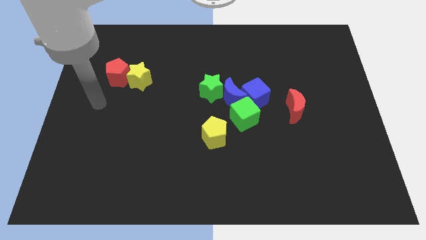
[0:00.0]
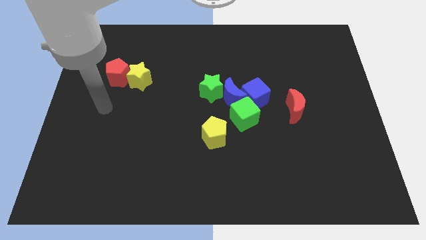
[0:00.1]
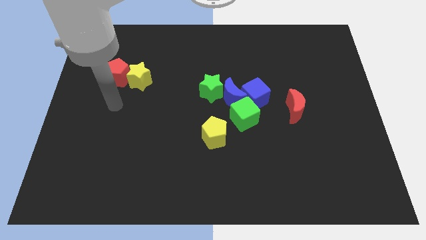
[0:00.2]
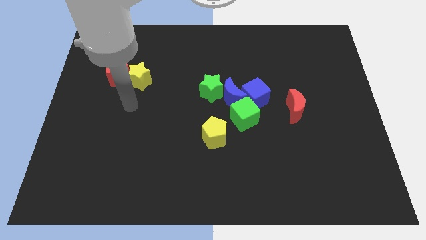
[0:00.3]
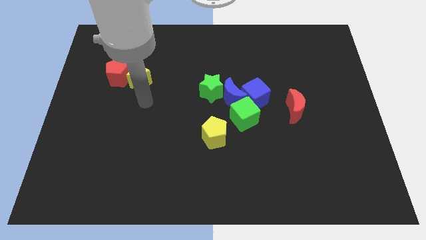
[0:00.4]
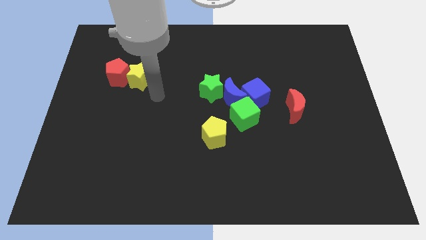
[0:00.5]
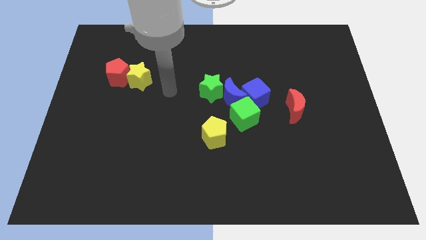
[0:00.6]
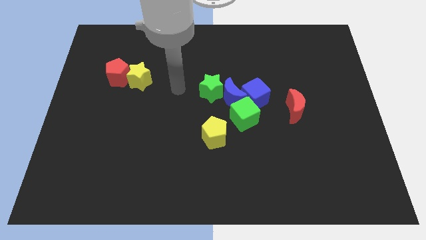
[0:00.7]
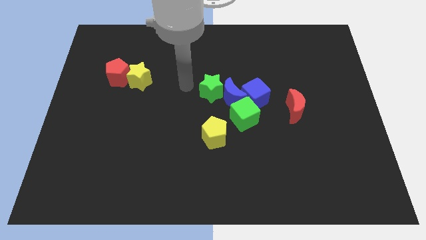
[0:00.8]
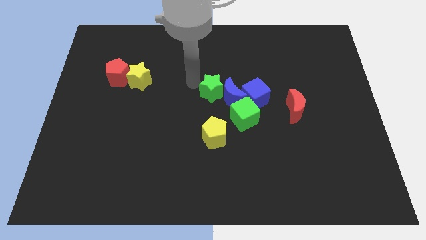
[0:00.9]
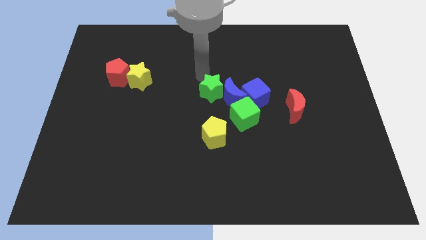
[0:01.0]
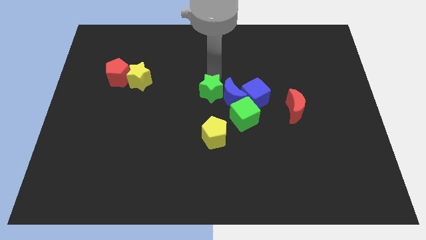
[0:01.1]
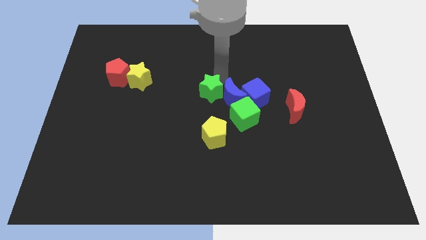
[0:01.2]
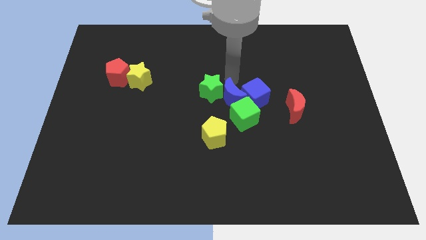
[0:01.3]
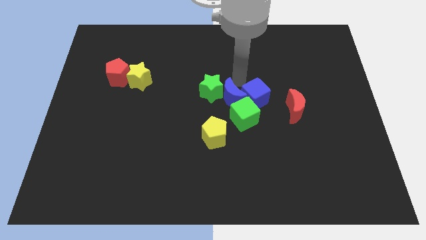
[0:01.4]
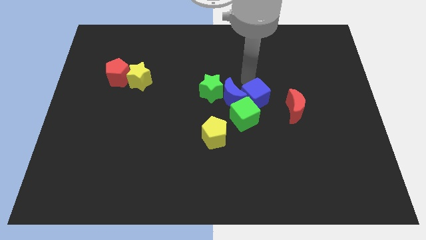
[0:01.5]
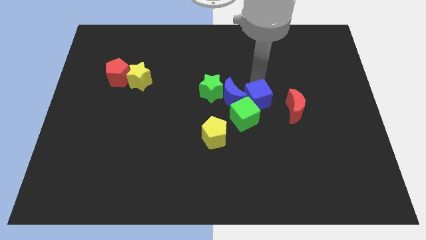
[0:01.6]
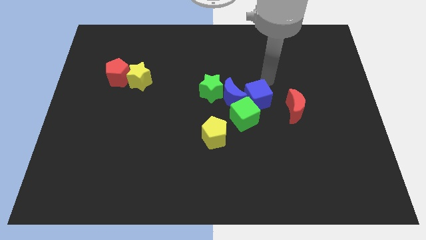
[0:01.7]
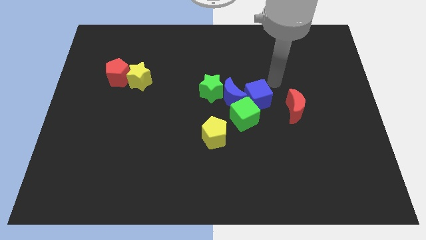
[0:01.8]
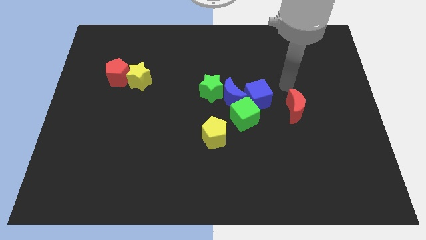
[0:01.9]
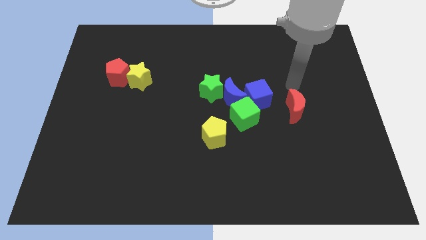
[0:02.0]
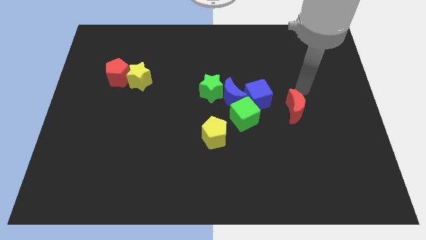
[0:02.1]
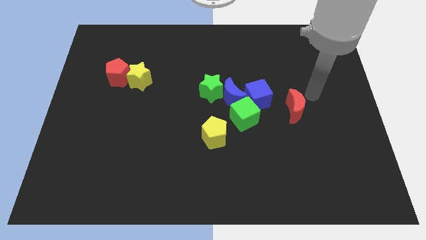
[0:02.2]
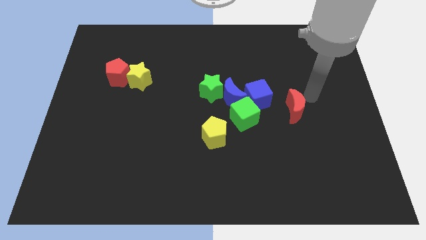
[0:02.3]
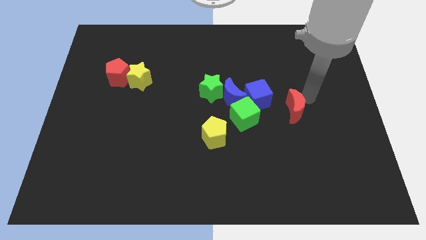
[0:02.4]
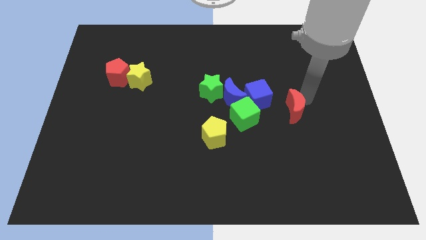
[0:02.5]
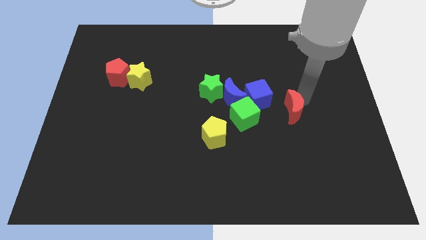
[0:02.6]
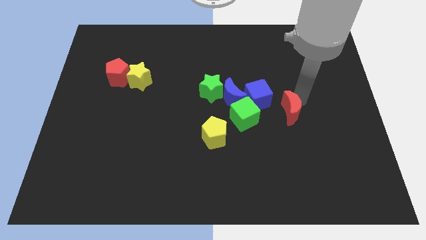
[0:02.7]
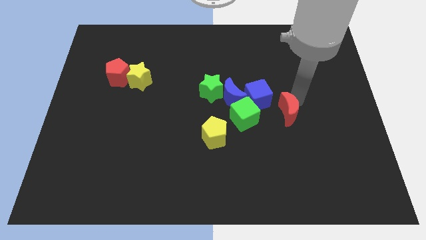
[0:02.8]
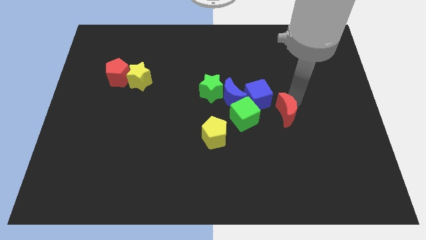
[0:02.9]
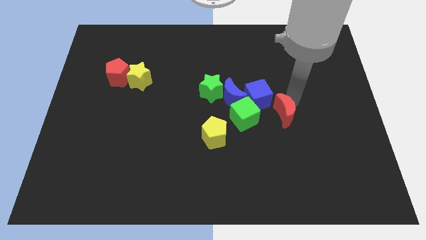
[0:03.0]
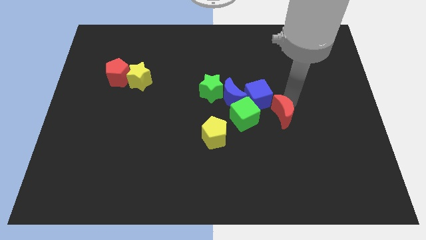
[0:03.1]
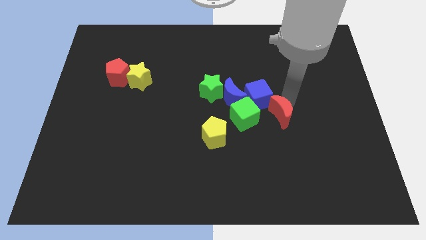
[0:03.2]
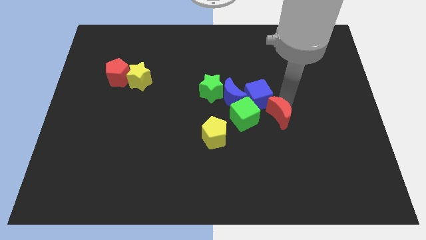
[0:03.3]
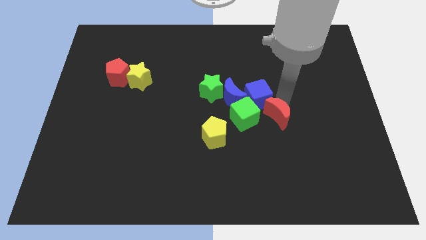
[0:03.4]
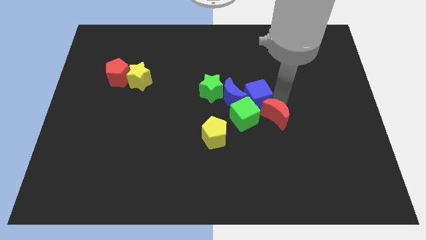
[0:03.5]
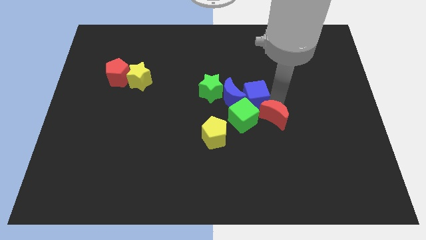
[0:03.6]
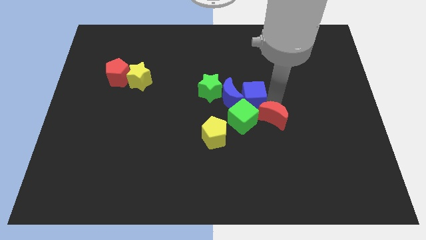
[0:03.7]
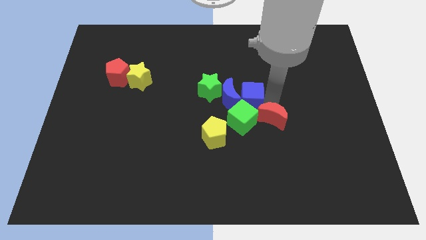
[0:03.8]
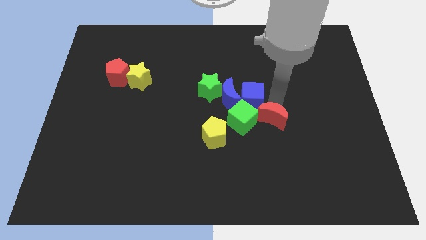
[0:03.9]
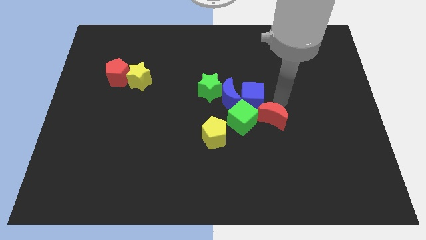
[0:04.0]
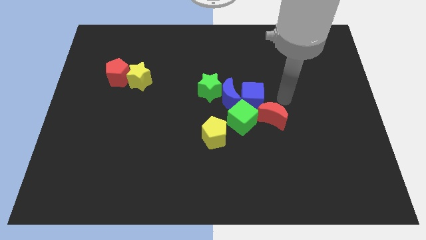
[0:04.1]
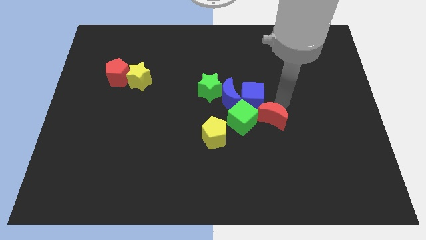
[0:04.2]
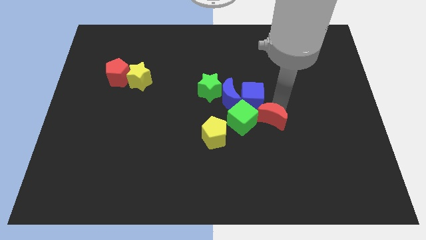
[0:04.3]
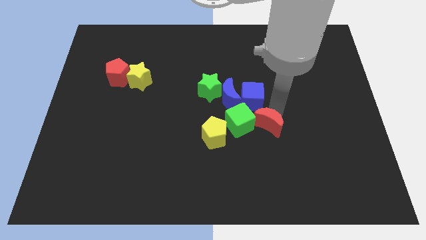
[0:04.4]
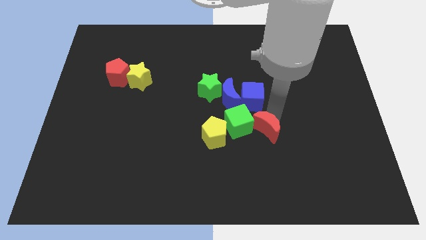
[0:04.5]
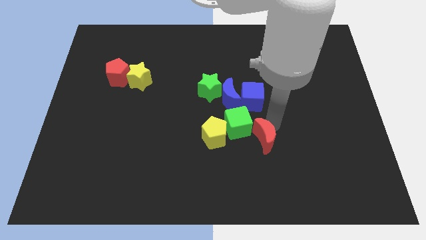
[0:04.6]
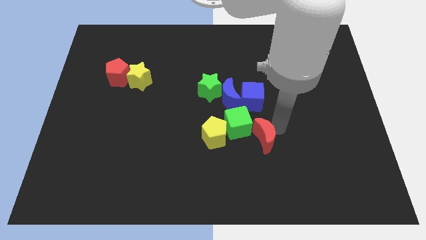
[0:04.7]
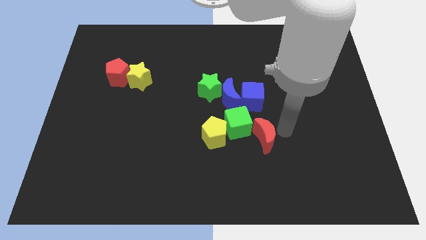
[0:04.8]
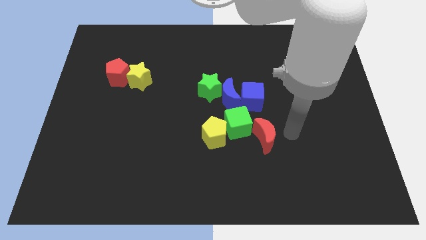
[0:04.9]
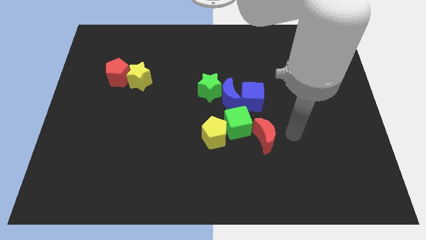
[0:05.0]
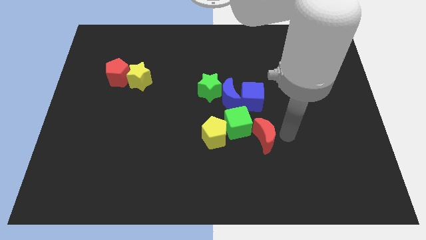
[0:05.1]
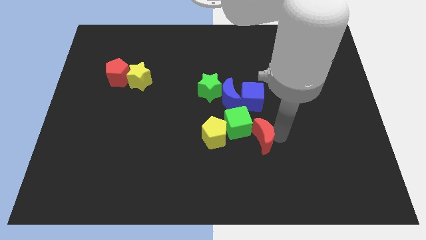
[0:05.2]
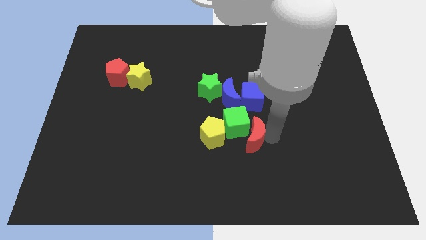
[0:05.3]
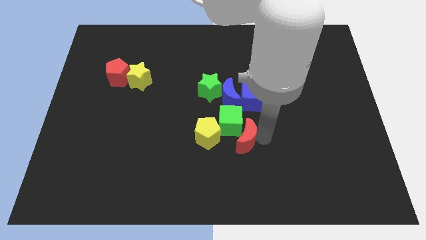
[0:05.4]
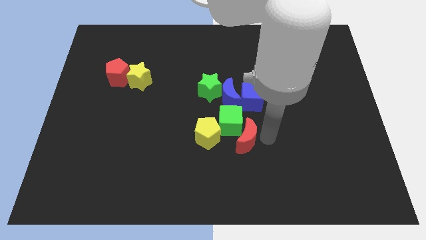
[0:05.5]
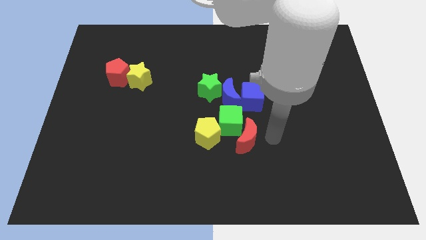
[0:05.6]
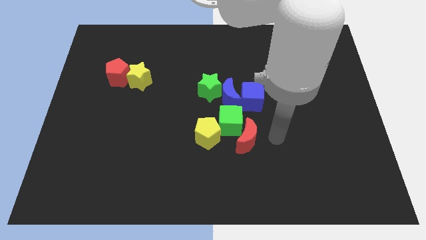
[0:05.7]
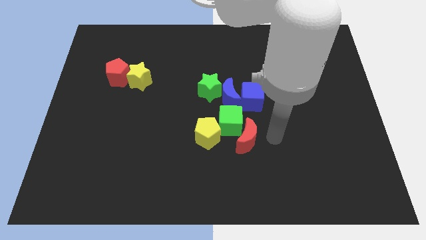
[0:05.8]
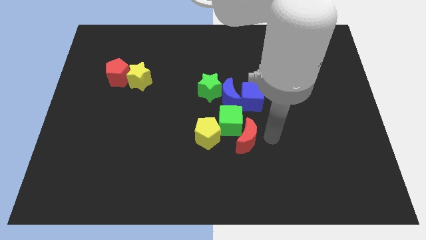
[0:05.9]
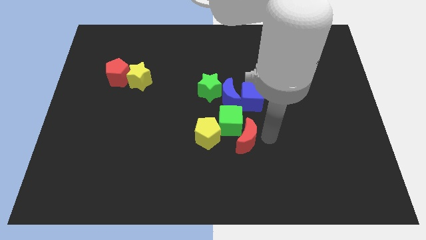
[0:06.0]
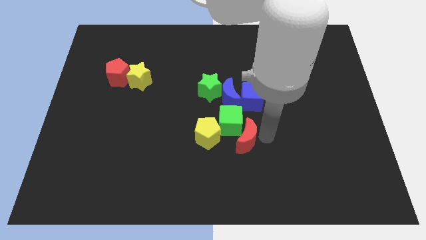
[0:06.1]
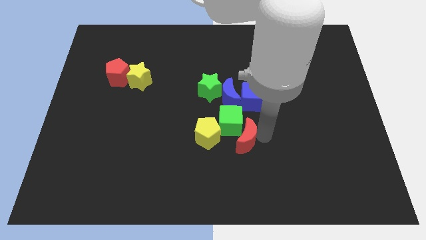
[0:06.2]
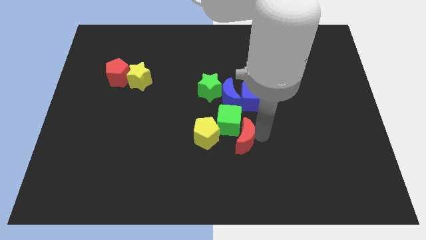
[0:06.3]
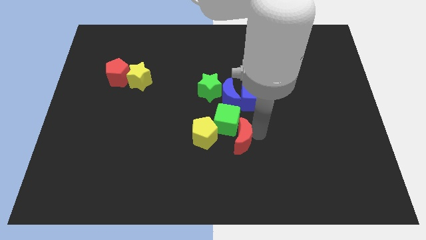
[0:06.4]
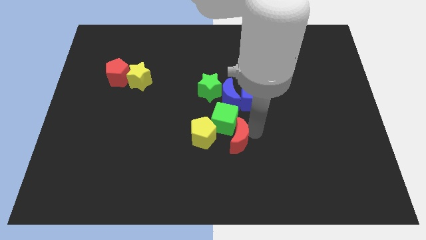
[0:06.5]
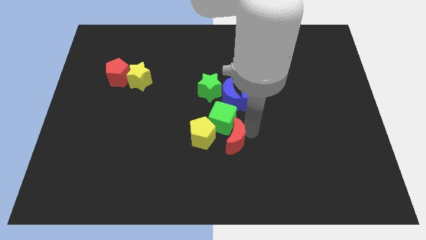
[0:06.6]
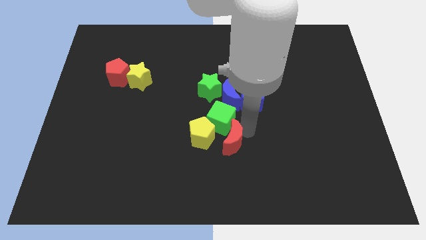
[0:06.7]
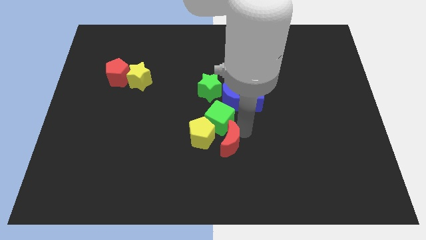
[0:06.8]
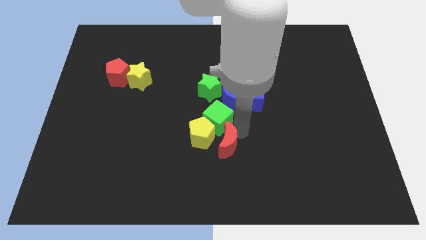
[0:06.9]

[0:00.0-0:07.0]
slide the red moon next to the yellow pentagon

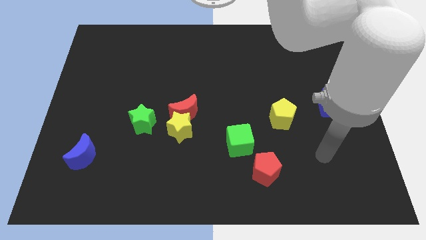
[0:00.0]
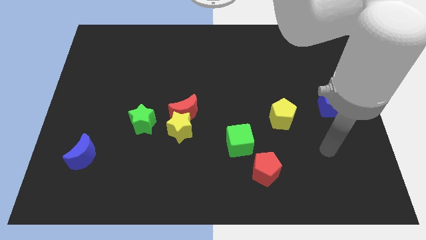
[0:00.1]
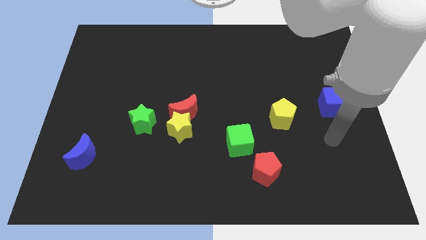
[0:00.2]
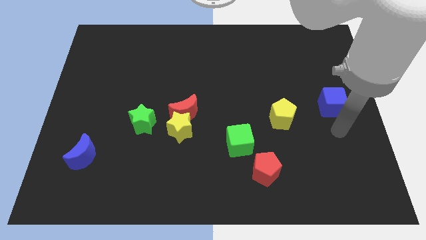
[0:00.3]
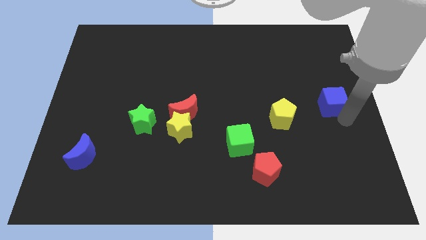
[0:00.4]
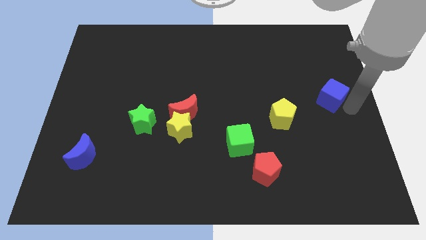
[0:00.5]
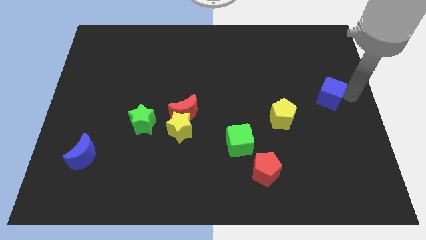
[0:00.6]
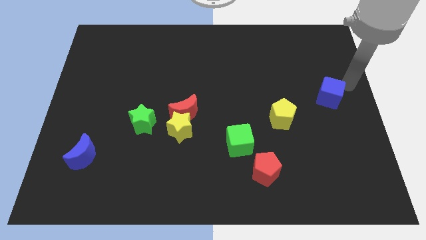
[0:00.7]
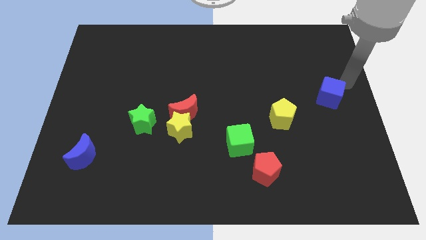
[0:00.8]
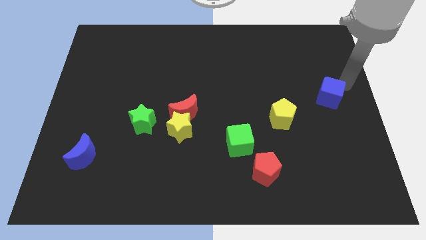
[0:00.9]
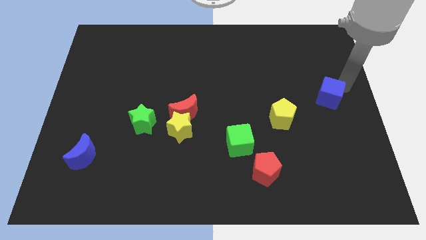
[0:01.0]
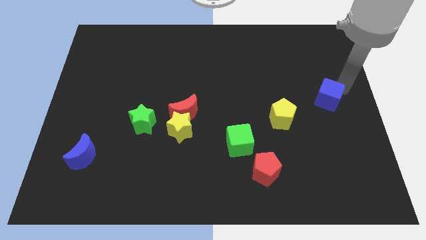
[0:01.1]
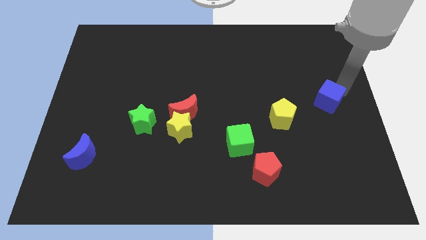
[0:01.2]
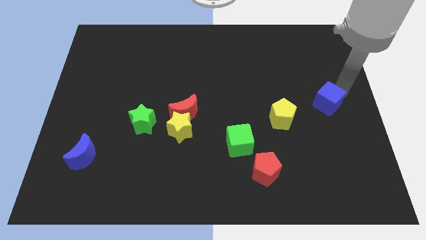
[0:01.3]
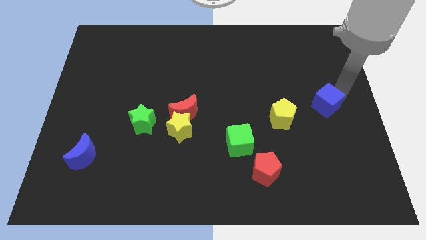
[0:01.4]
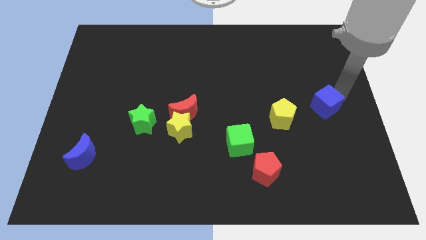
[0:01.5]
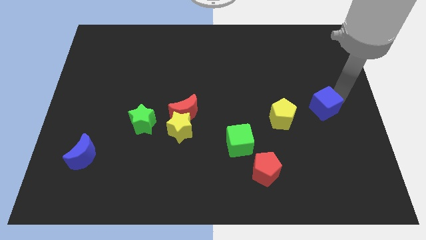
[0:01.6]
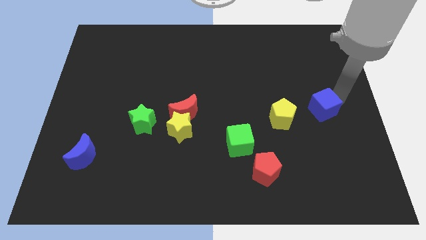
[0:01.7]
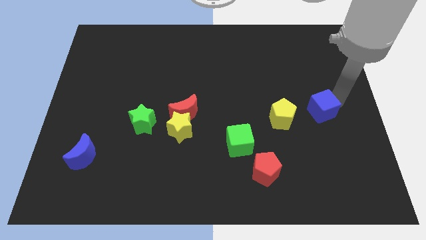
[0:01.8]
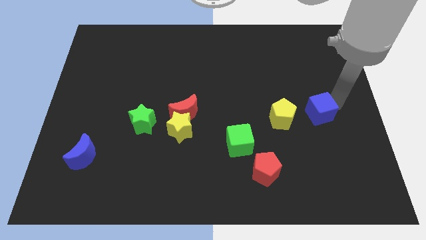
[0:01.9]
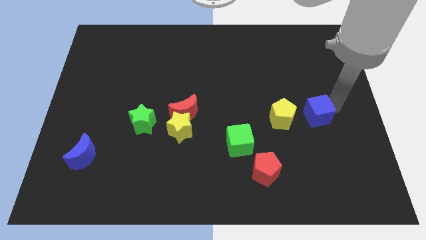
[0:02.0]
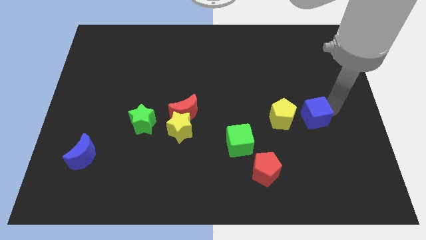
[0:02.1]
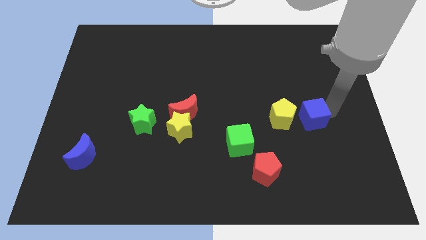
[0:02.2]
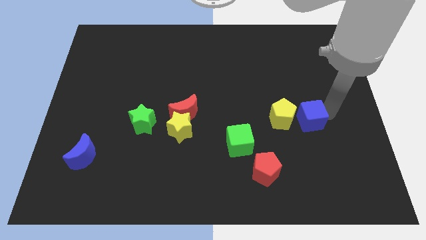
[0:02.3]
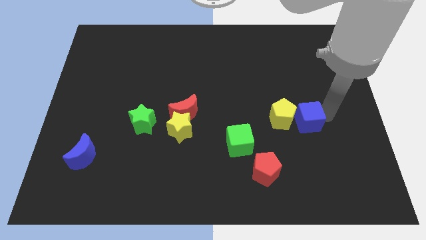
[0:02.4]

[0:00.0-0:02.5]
slide the blue cube next to the yellow pentagon
